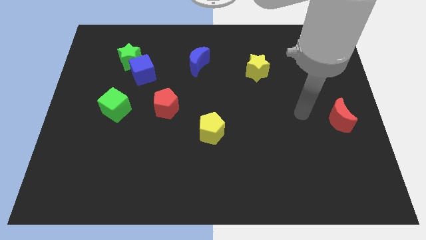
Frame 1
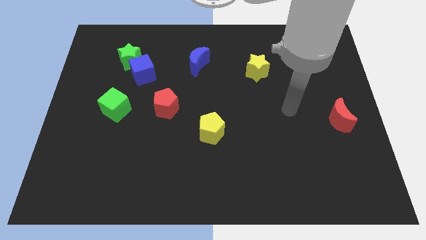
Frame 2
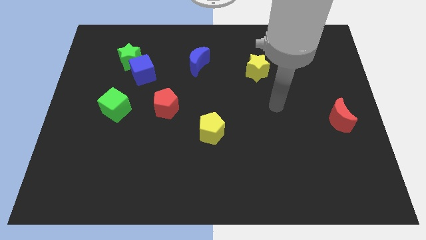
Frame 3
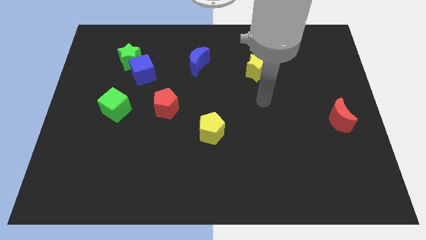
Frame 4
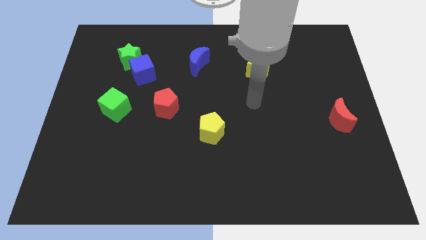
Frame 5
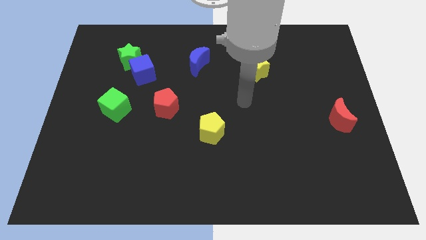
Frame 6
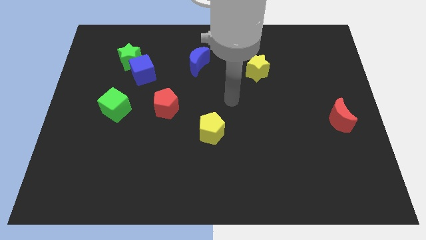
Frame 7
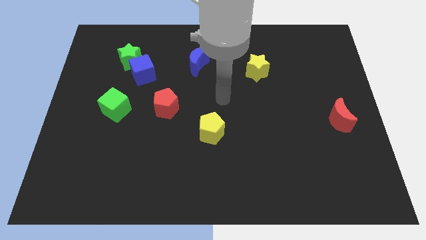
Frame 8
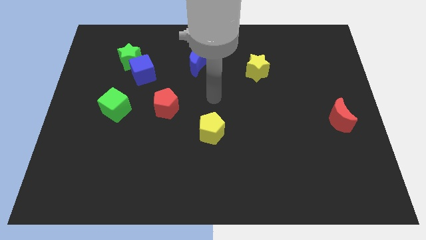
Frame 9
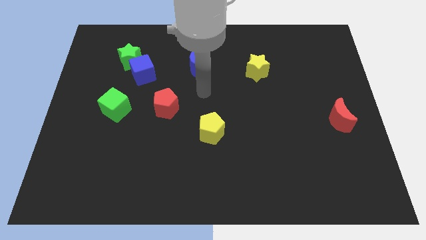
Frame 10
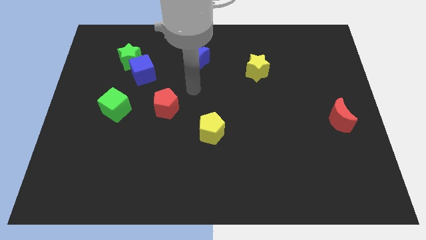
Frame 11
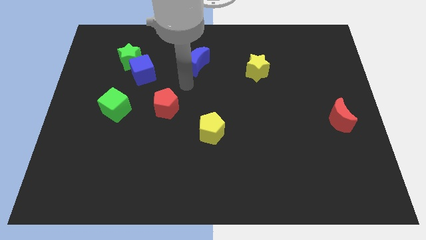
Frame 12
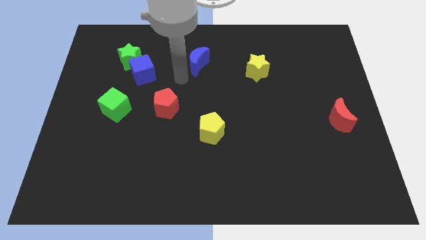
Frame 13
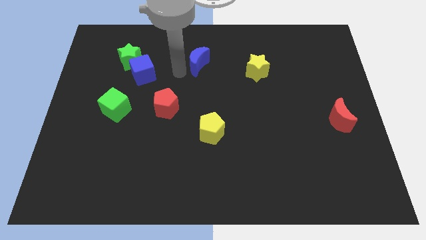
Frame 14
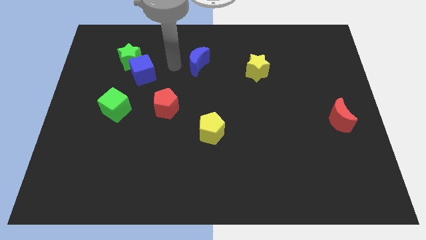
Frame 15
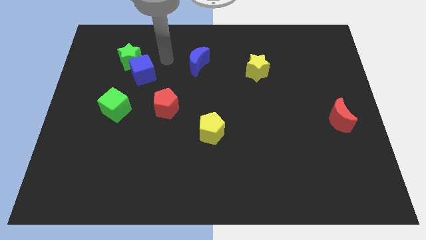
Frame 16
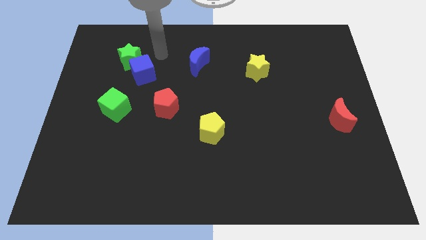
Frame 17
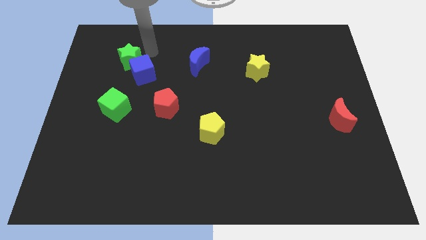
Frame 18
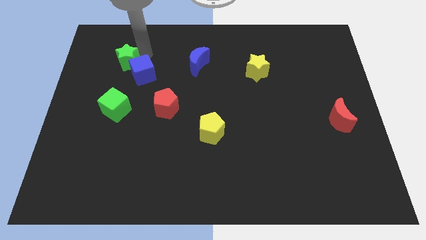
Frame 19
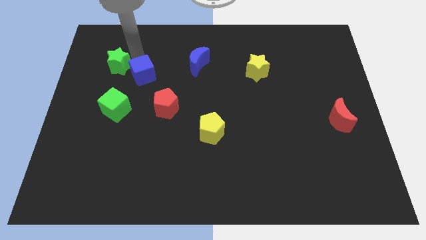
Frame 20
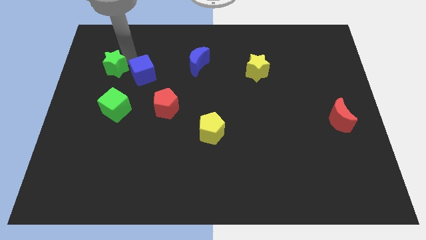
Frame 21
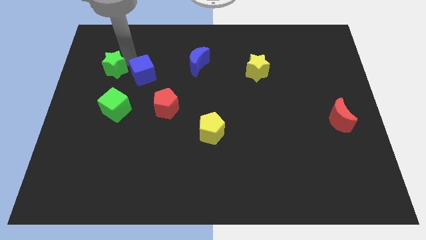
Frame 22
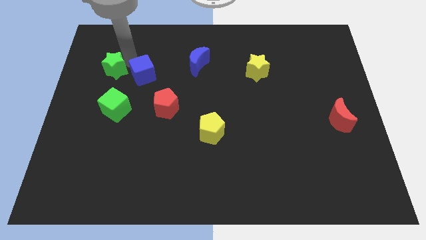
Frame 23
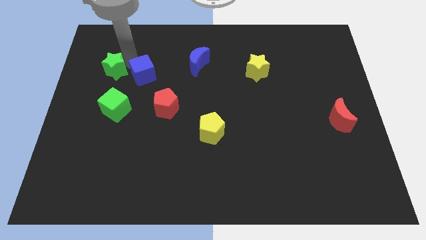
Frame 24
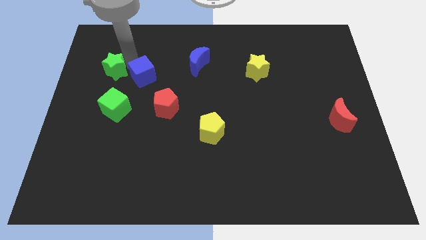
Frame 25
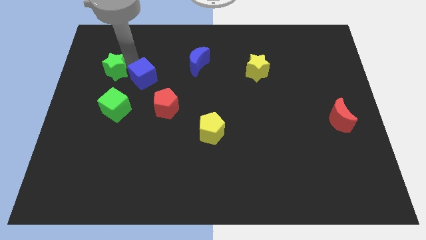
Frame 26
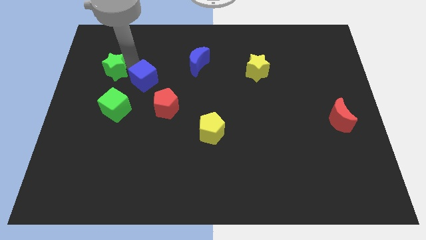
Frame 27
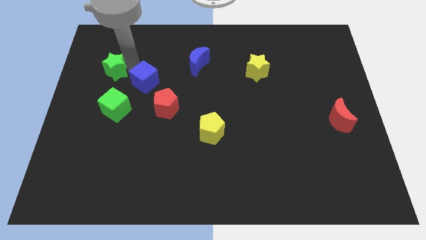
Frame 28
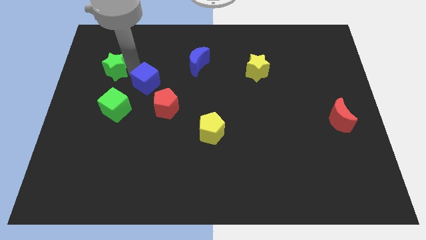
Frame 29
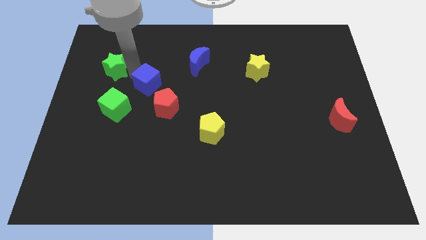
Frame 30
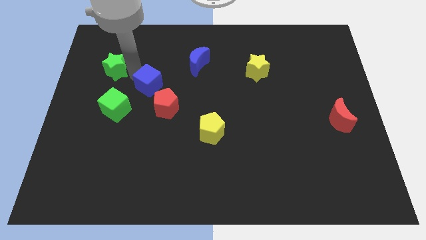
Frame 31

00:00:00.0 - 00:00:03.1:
move the blue cube away from the green star

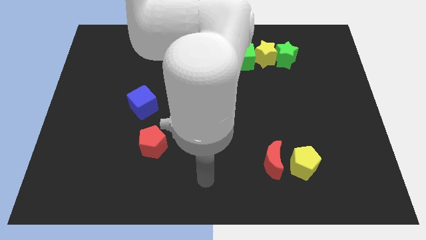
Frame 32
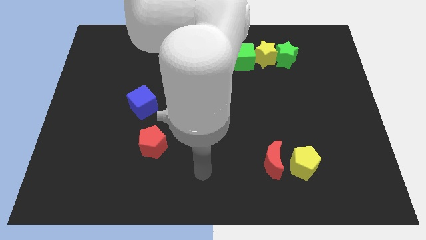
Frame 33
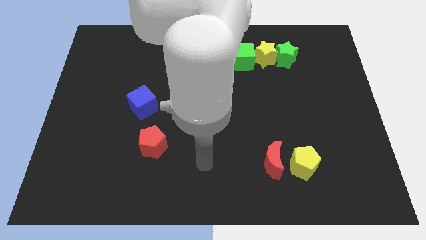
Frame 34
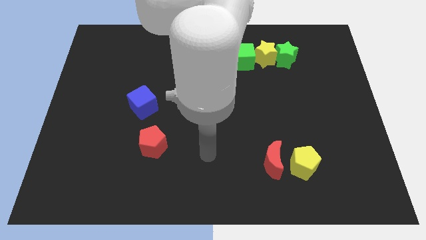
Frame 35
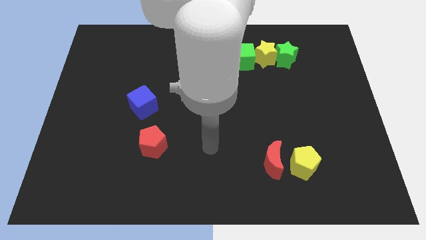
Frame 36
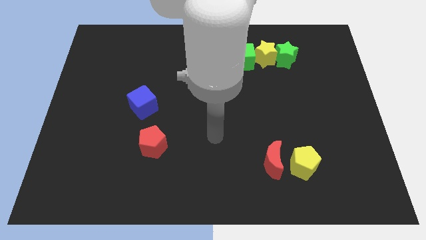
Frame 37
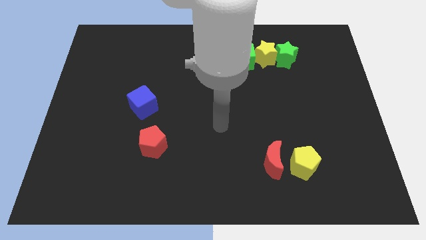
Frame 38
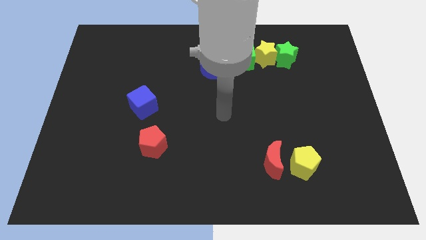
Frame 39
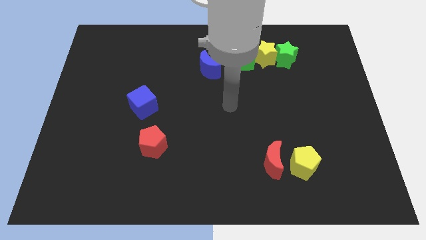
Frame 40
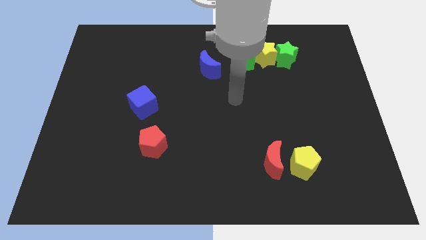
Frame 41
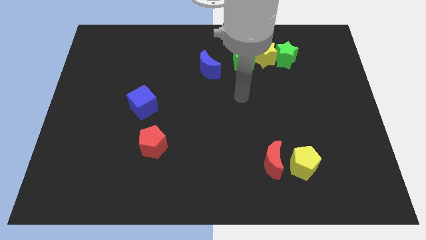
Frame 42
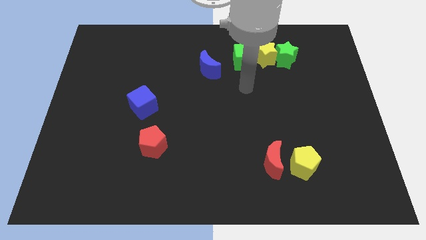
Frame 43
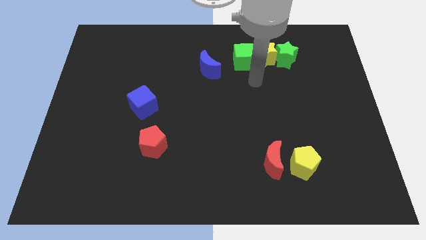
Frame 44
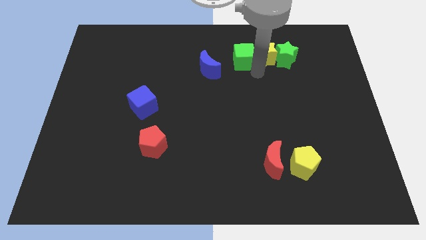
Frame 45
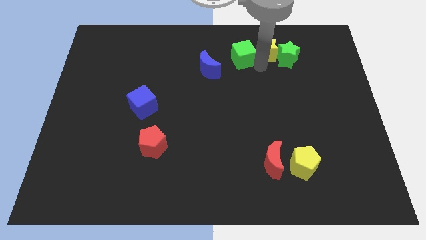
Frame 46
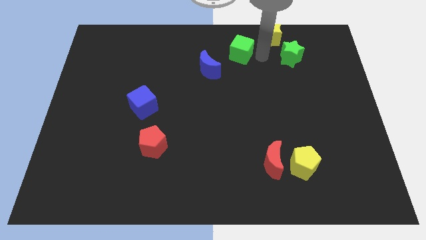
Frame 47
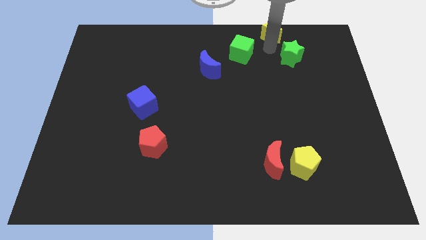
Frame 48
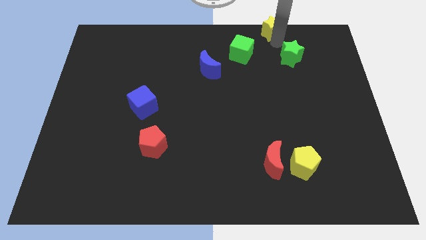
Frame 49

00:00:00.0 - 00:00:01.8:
pull the green star apart from the yellow star

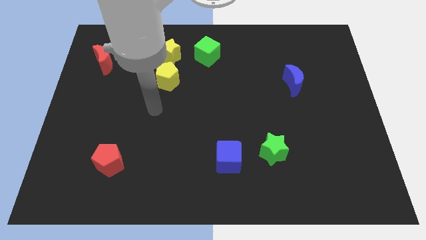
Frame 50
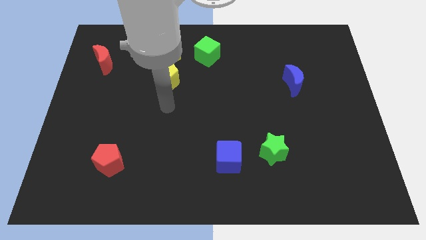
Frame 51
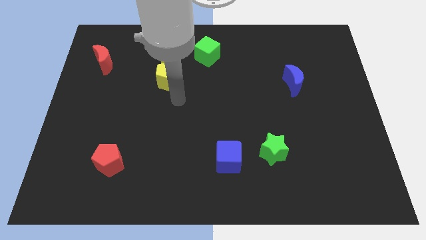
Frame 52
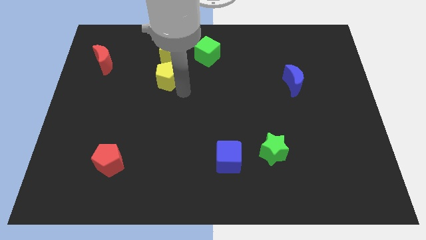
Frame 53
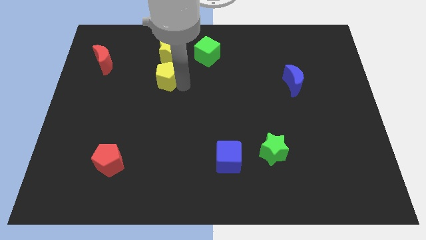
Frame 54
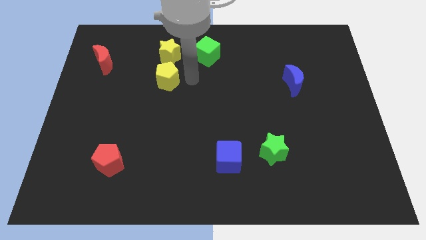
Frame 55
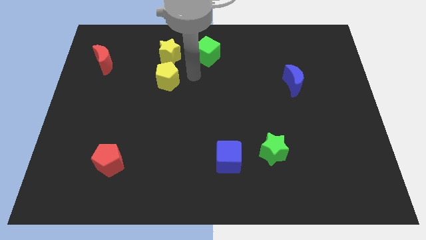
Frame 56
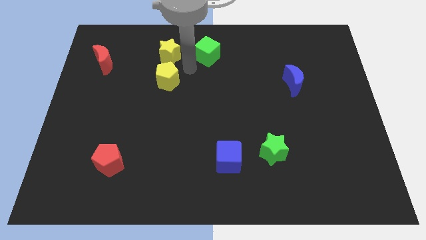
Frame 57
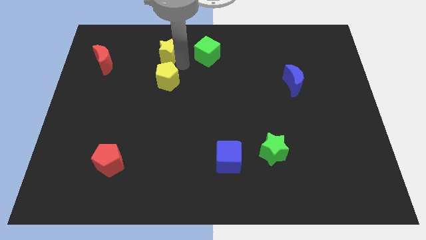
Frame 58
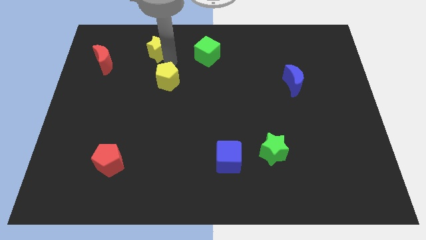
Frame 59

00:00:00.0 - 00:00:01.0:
pull the yellow pentagon apart from the yellow star

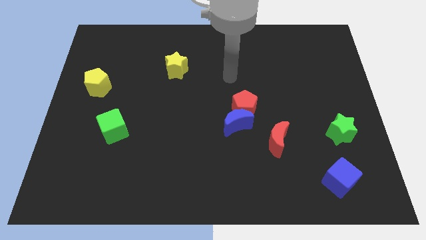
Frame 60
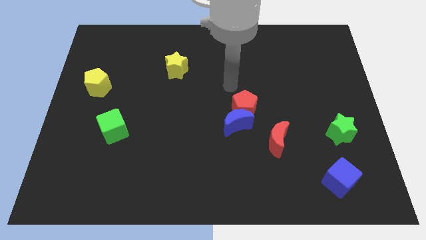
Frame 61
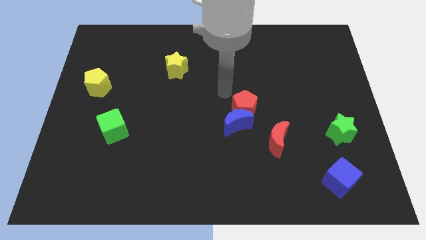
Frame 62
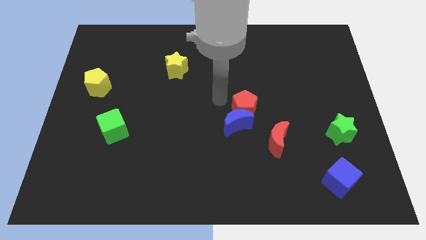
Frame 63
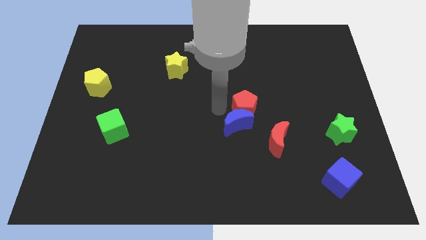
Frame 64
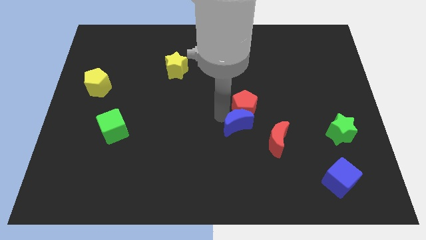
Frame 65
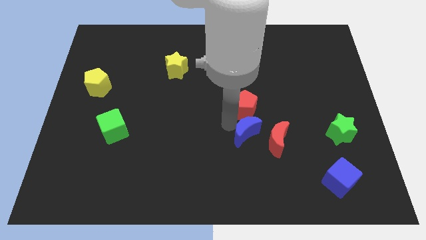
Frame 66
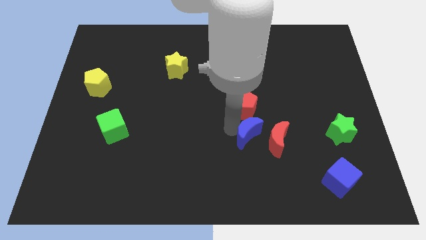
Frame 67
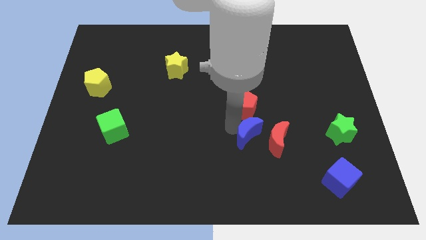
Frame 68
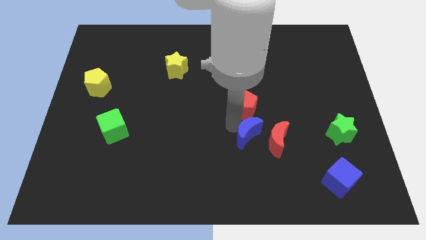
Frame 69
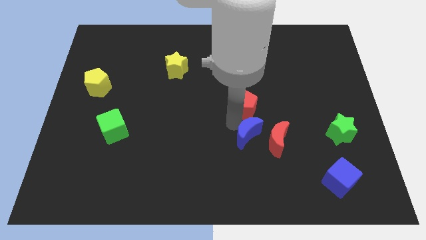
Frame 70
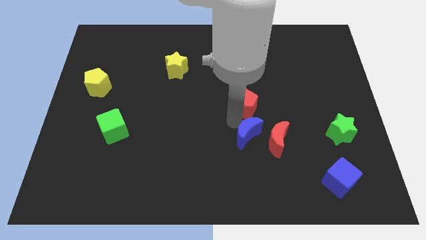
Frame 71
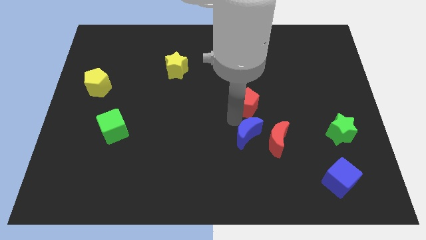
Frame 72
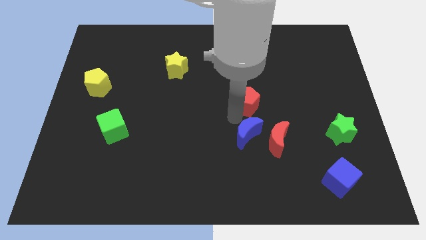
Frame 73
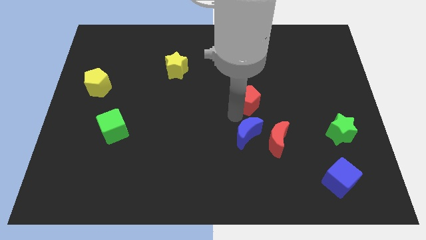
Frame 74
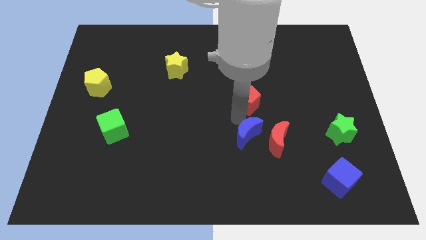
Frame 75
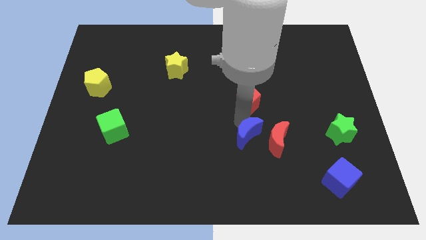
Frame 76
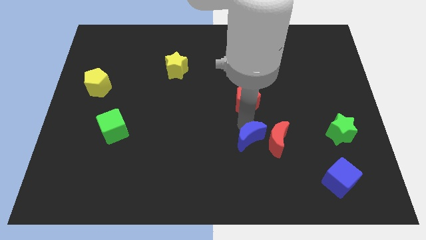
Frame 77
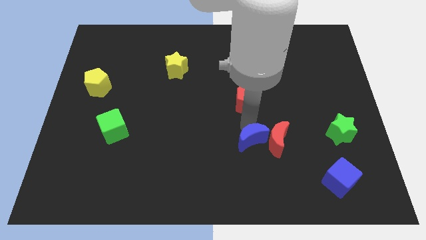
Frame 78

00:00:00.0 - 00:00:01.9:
separate the red pentagon from the blue moon

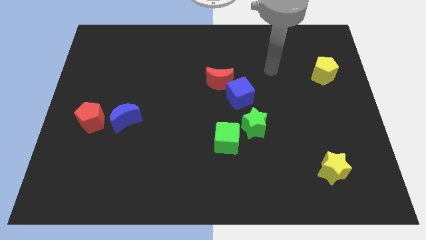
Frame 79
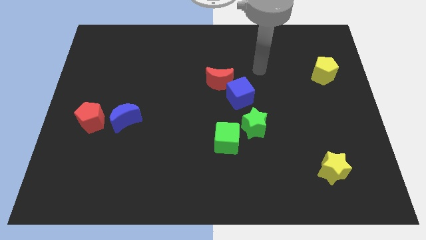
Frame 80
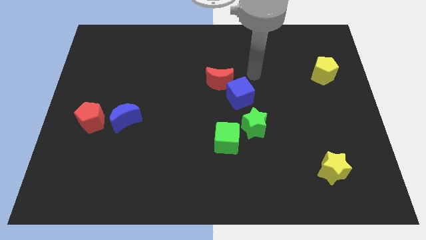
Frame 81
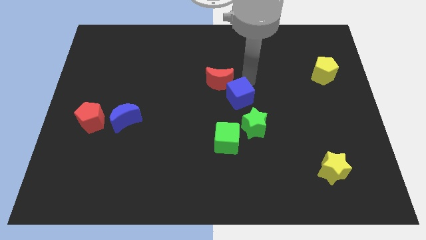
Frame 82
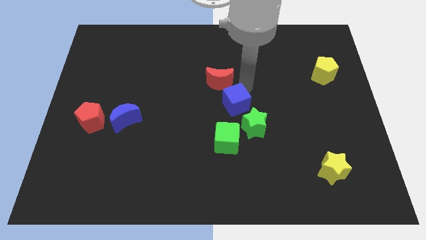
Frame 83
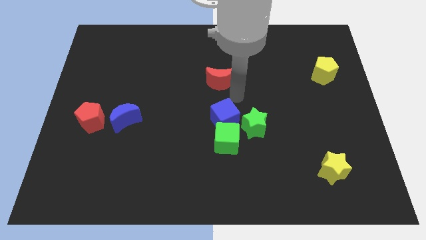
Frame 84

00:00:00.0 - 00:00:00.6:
pull the red moon apart from the blue cube

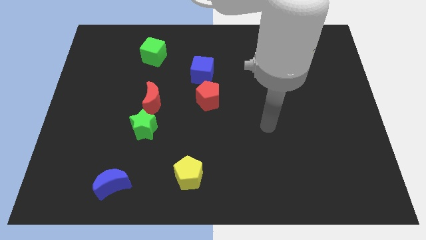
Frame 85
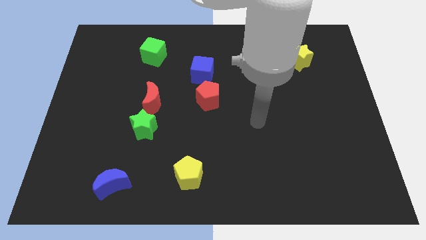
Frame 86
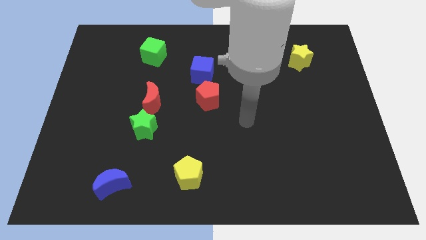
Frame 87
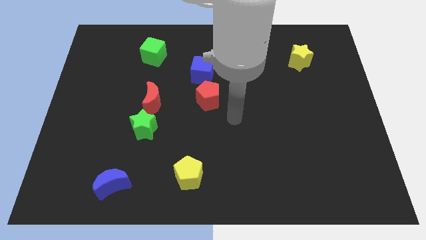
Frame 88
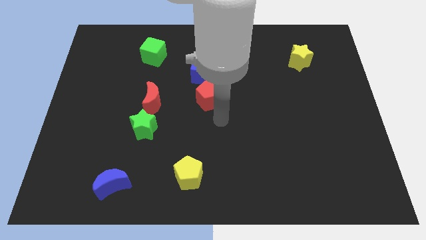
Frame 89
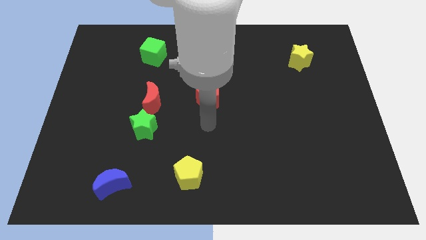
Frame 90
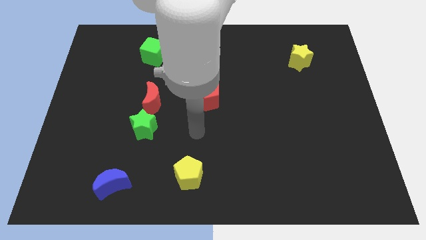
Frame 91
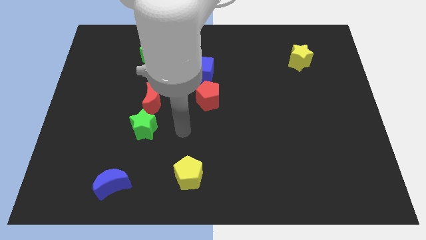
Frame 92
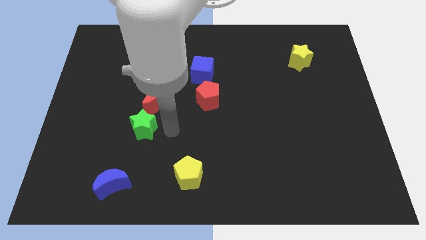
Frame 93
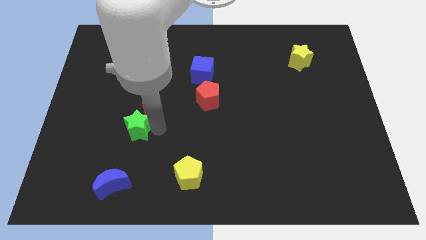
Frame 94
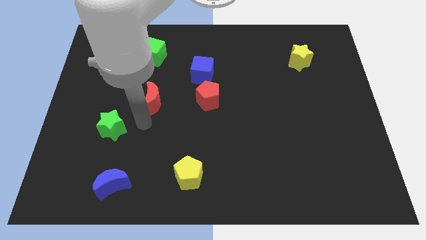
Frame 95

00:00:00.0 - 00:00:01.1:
pull the red moon apart from the green star
